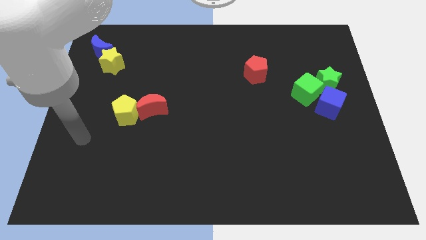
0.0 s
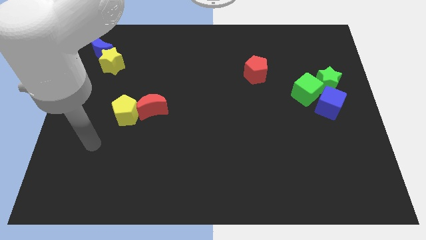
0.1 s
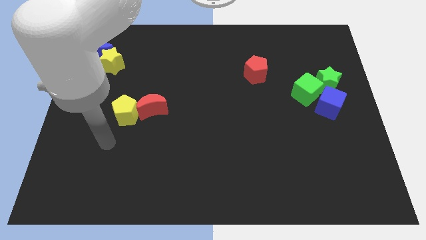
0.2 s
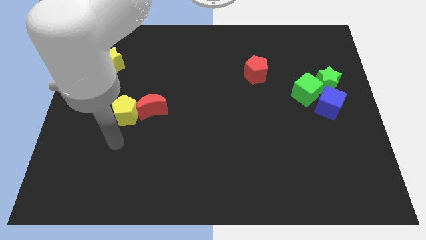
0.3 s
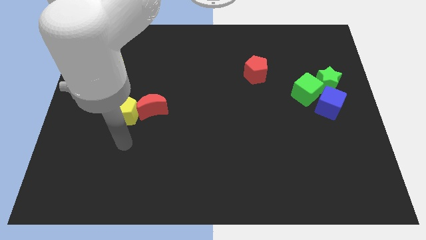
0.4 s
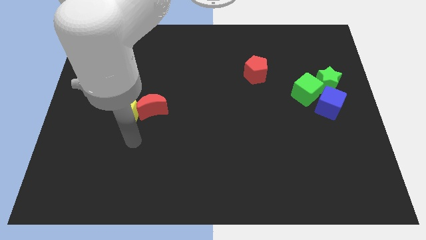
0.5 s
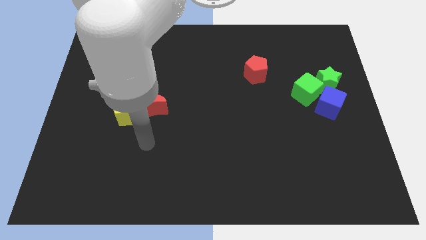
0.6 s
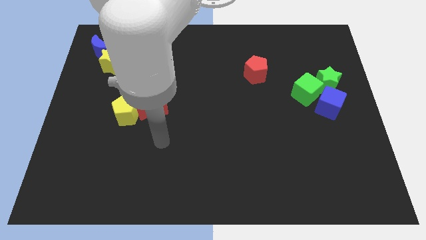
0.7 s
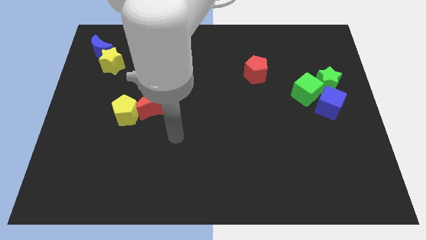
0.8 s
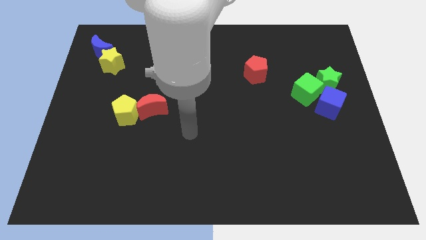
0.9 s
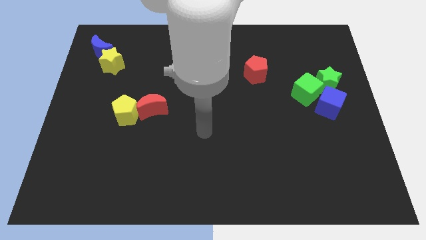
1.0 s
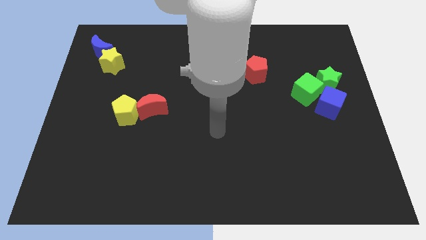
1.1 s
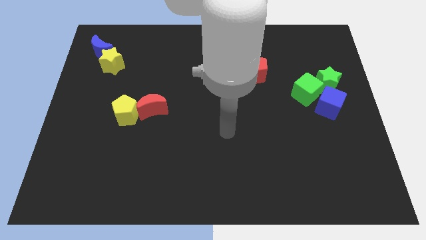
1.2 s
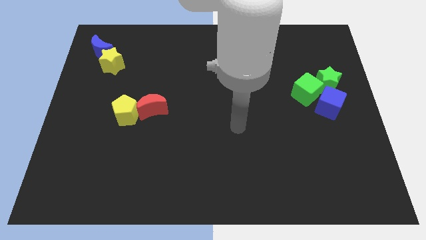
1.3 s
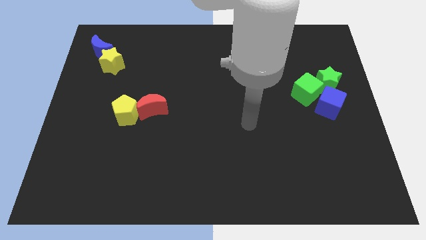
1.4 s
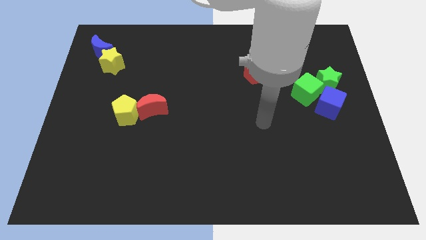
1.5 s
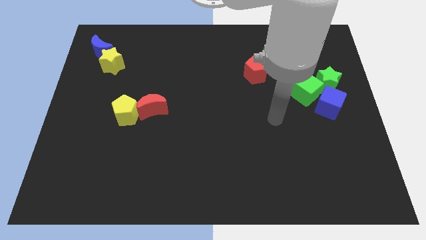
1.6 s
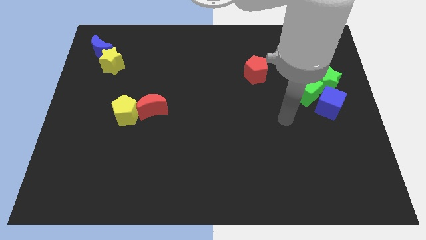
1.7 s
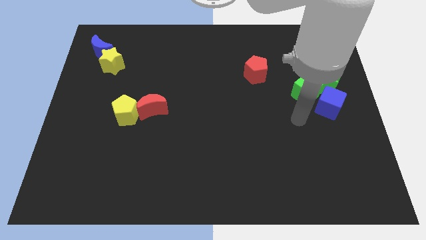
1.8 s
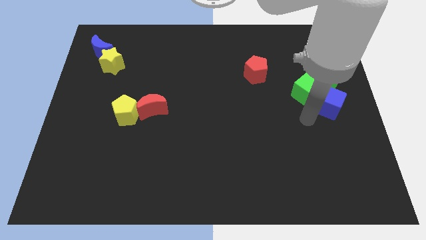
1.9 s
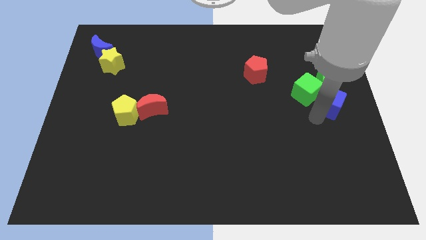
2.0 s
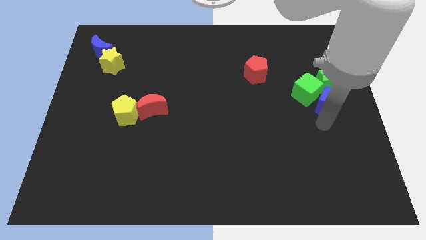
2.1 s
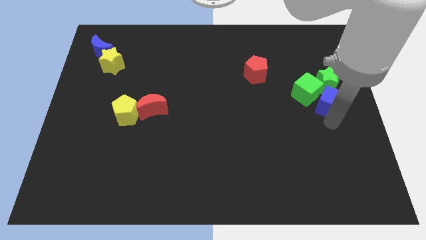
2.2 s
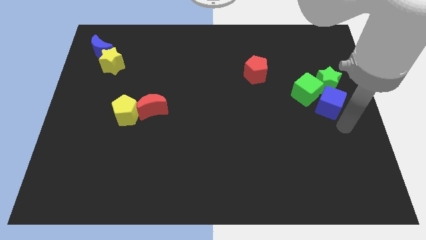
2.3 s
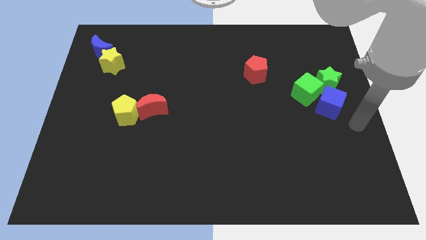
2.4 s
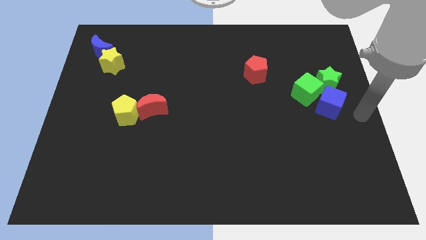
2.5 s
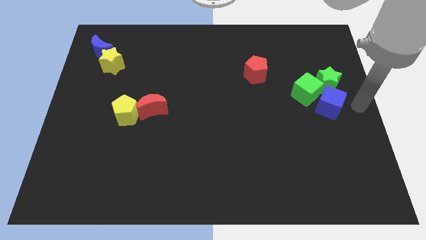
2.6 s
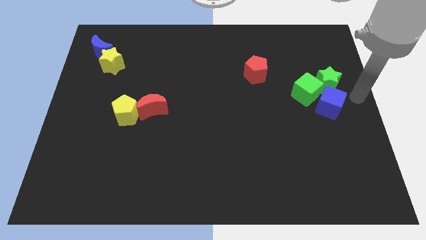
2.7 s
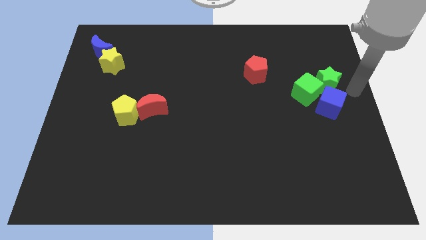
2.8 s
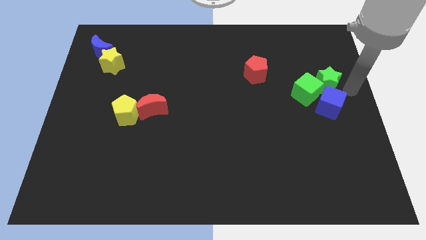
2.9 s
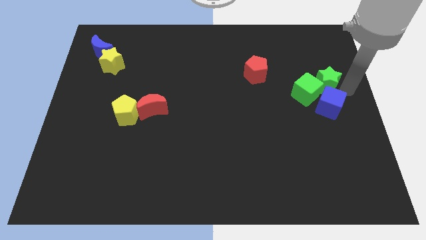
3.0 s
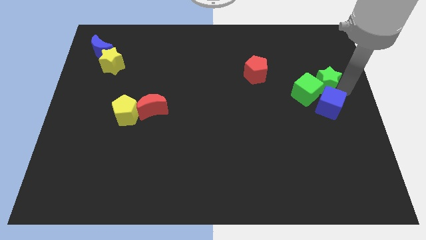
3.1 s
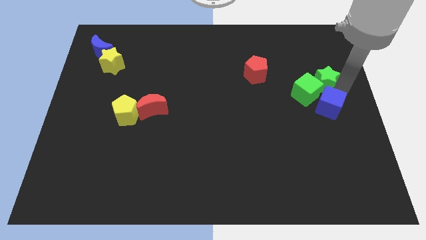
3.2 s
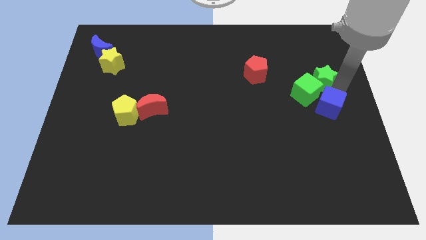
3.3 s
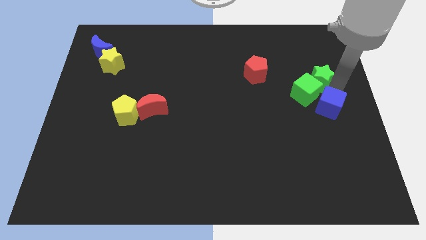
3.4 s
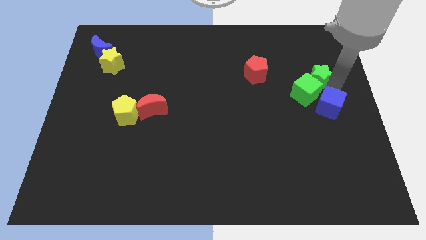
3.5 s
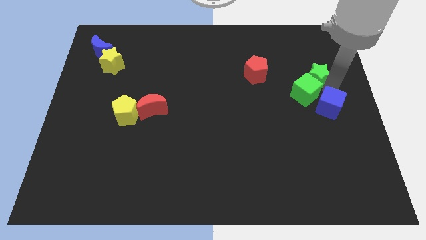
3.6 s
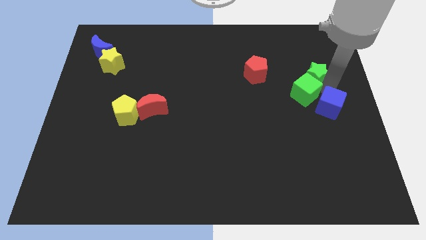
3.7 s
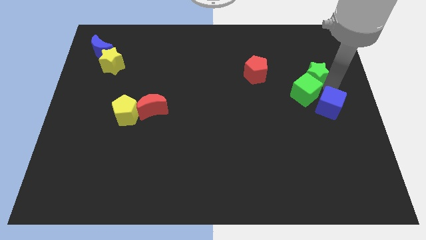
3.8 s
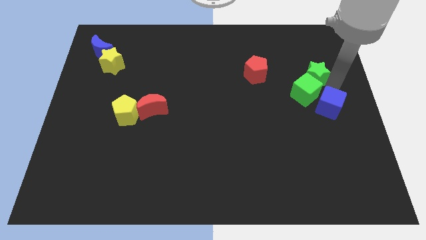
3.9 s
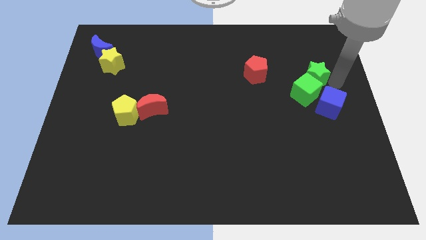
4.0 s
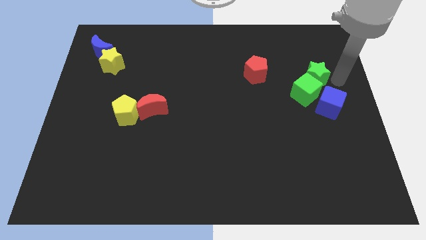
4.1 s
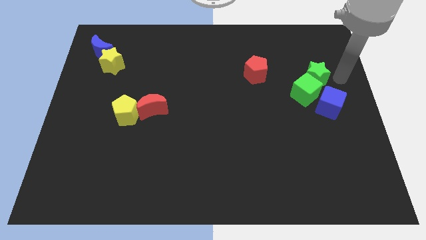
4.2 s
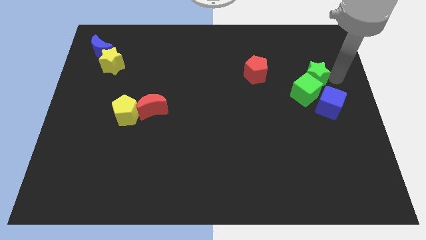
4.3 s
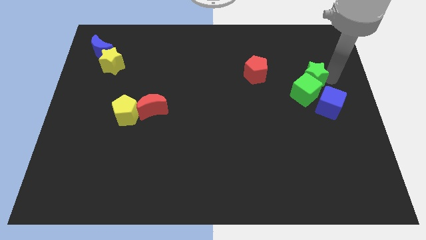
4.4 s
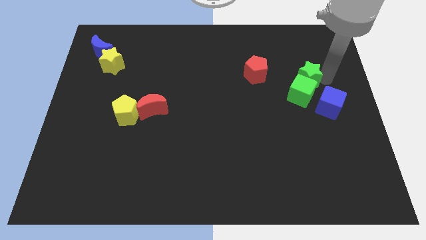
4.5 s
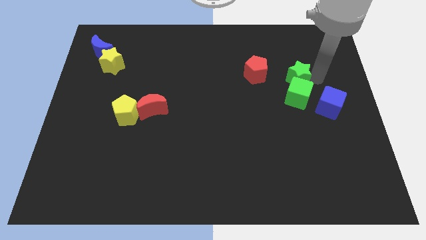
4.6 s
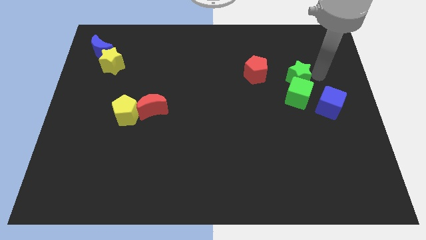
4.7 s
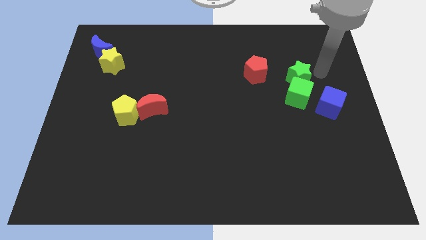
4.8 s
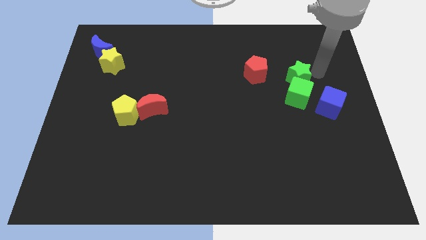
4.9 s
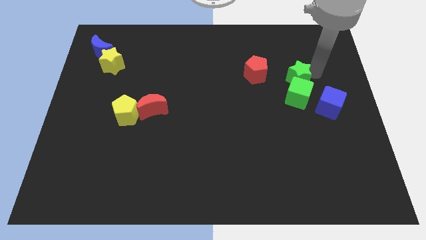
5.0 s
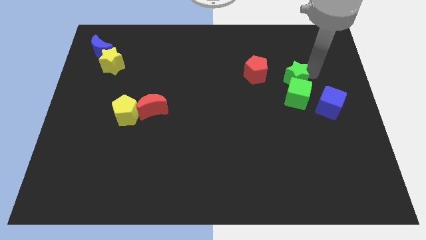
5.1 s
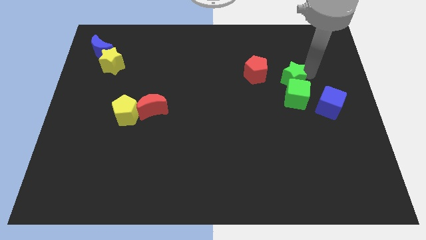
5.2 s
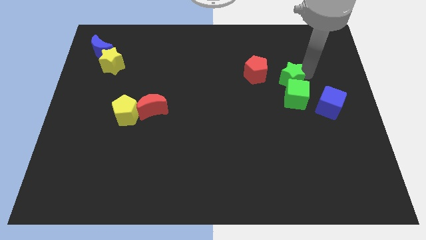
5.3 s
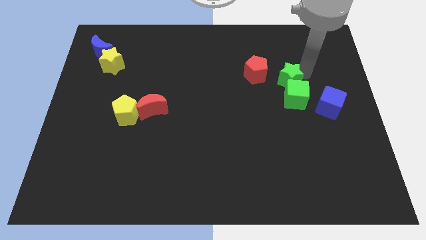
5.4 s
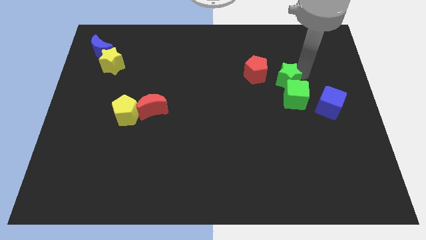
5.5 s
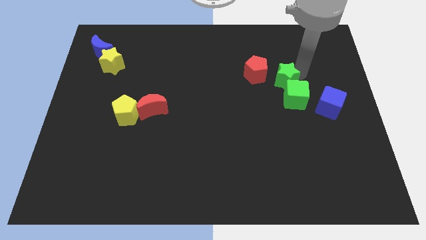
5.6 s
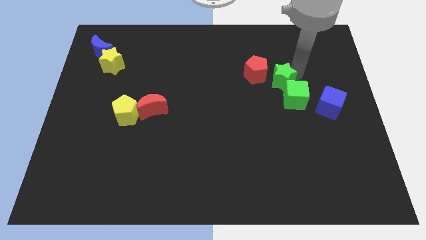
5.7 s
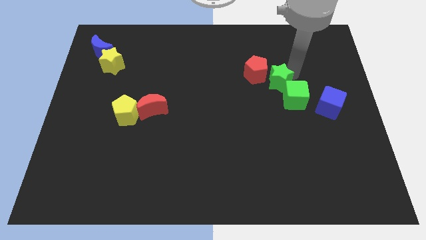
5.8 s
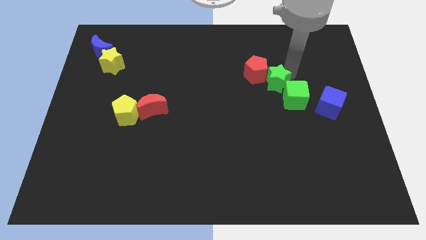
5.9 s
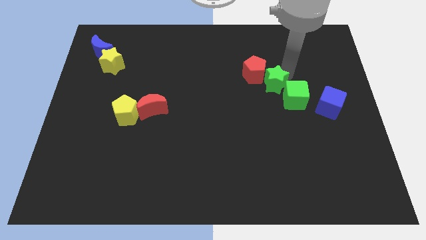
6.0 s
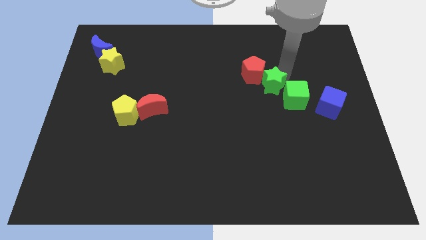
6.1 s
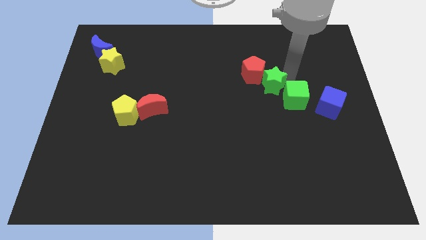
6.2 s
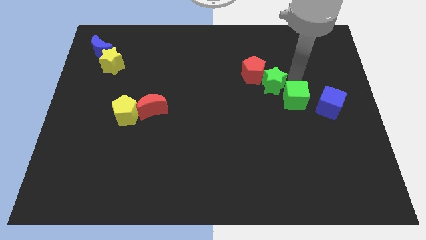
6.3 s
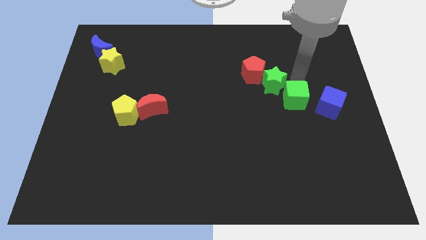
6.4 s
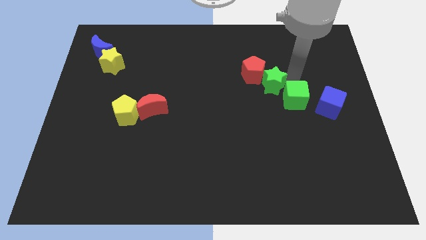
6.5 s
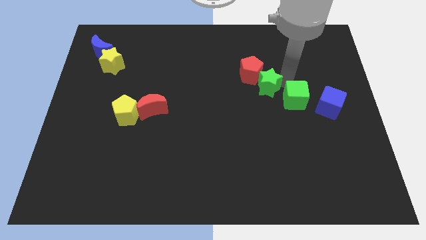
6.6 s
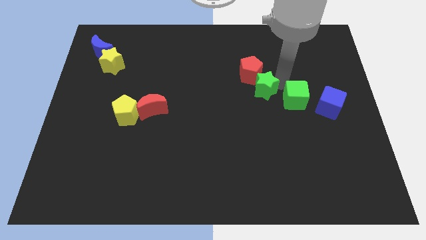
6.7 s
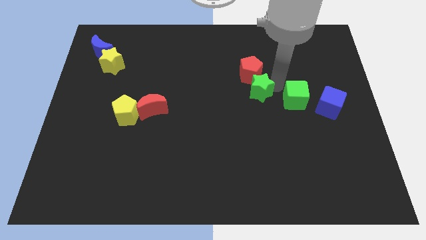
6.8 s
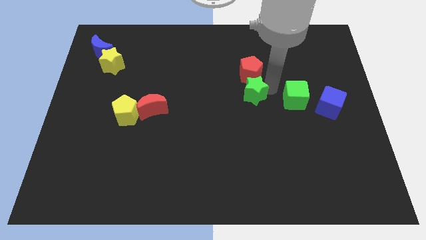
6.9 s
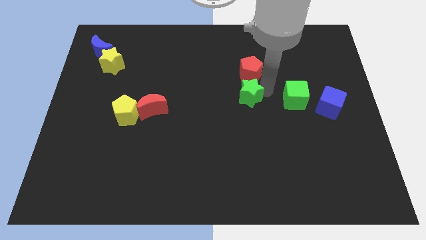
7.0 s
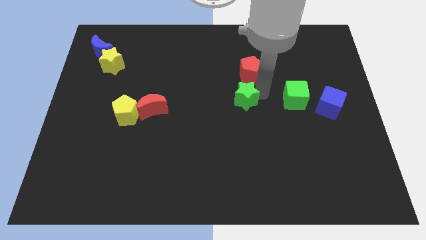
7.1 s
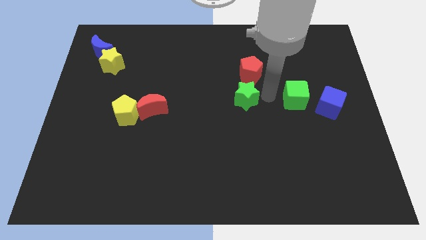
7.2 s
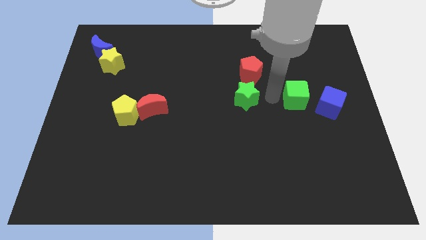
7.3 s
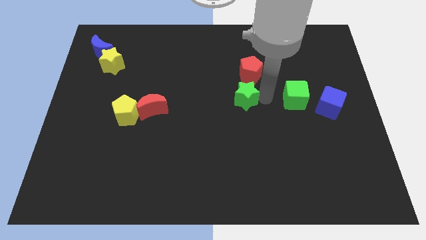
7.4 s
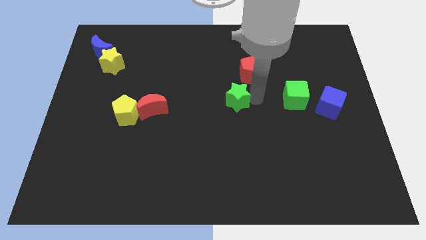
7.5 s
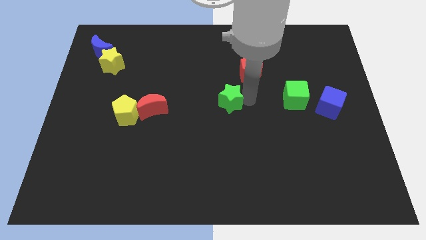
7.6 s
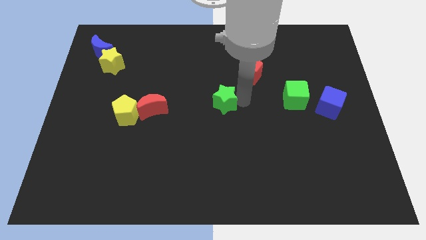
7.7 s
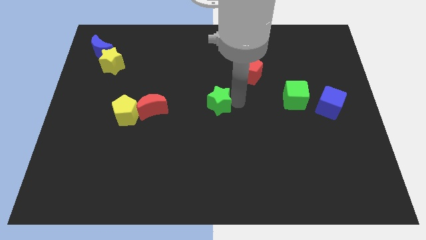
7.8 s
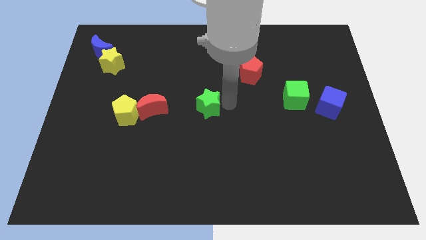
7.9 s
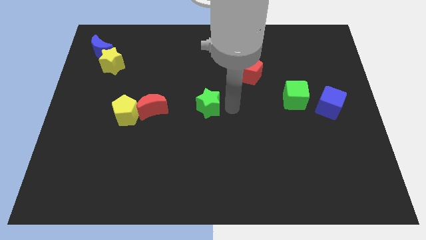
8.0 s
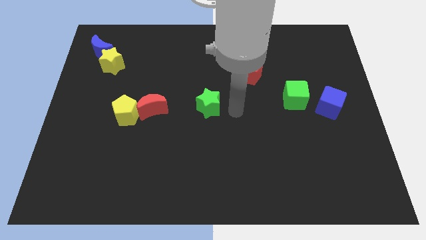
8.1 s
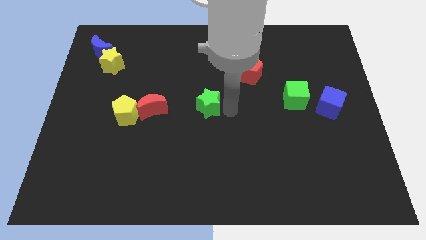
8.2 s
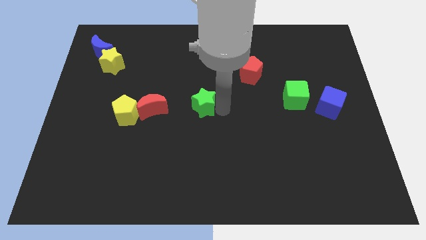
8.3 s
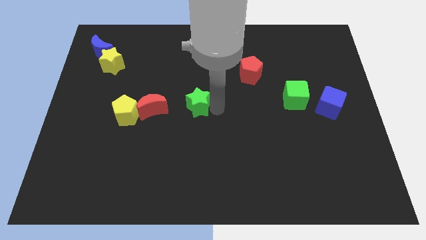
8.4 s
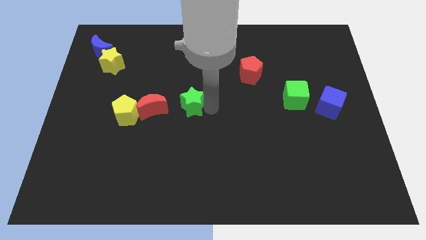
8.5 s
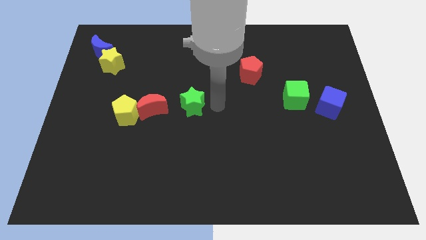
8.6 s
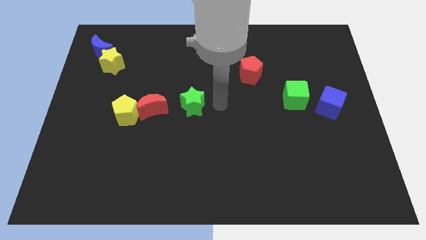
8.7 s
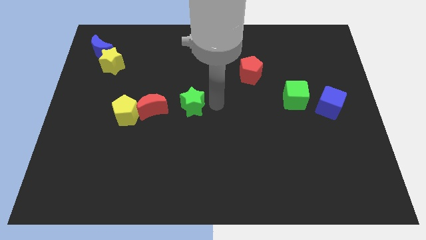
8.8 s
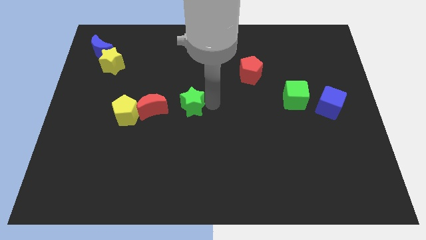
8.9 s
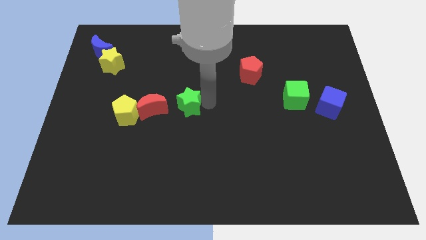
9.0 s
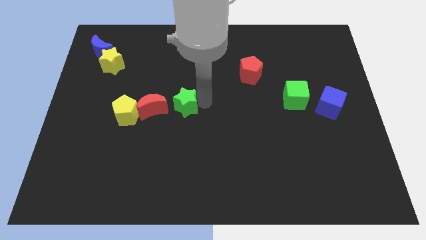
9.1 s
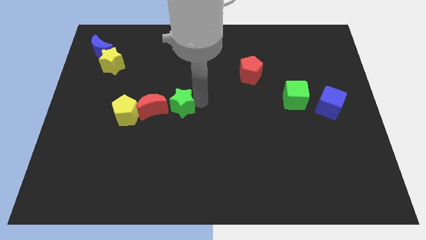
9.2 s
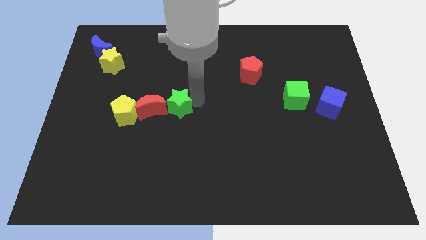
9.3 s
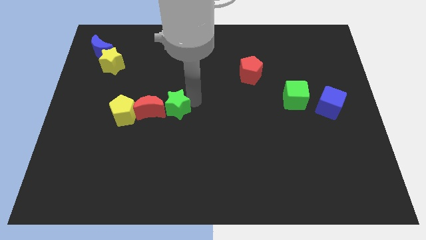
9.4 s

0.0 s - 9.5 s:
push the green star close to the red moon
